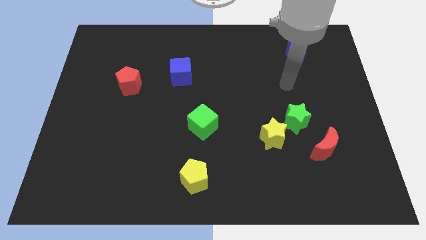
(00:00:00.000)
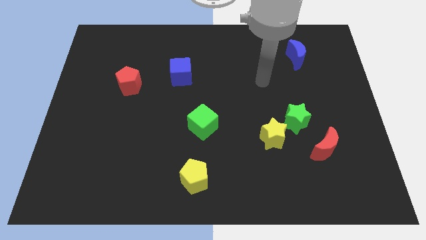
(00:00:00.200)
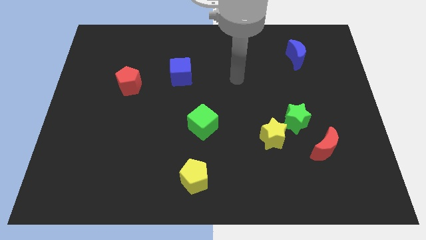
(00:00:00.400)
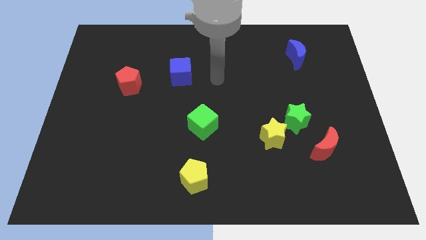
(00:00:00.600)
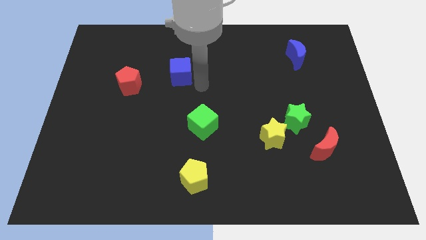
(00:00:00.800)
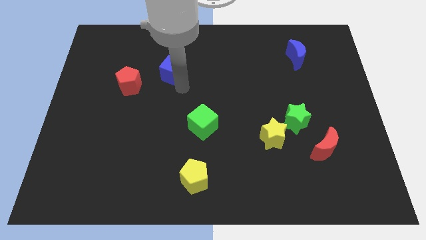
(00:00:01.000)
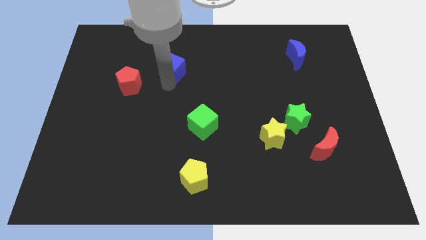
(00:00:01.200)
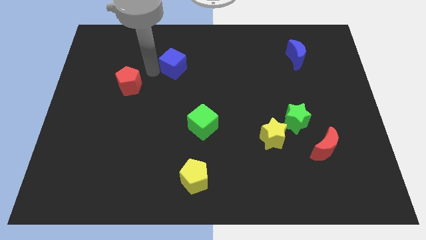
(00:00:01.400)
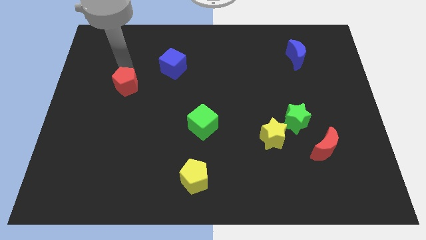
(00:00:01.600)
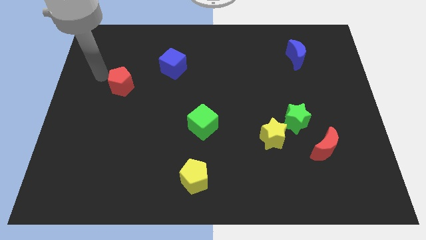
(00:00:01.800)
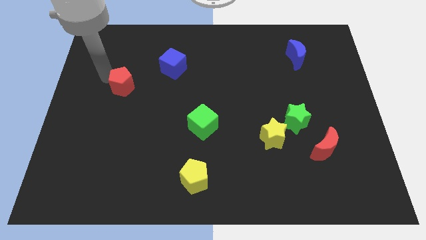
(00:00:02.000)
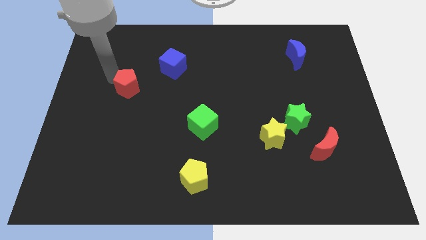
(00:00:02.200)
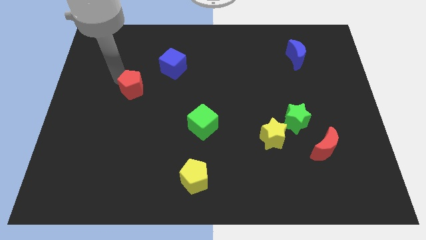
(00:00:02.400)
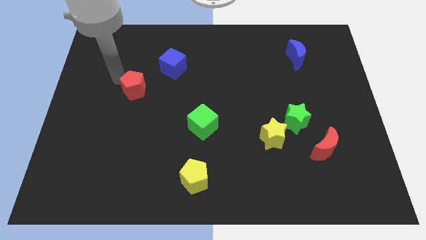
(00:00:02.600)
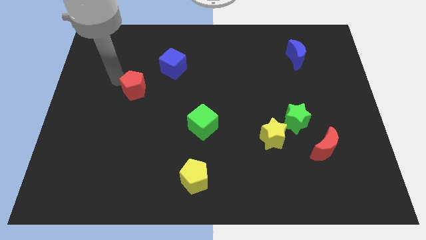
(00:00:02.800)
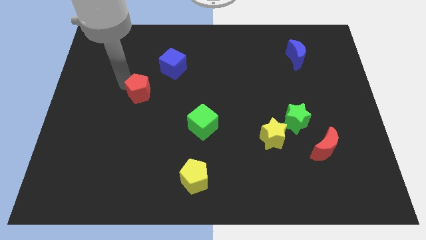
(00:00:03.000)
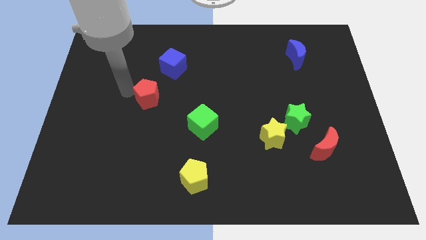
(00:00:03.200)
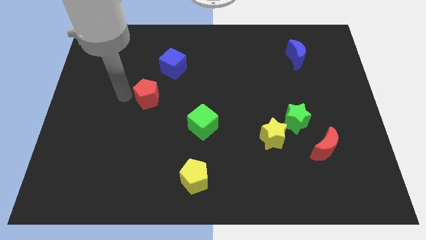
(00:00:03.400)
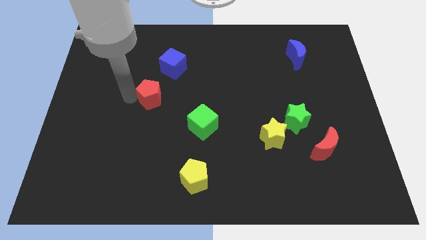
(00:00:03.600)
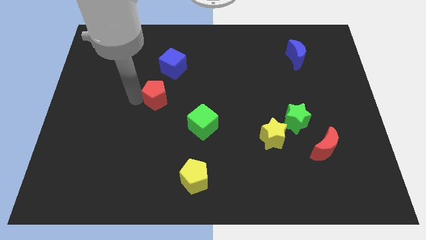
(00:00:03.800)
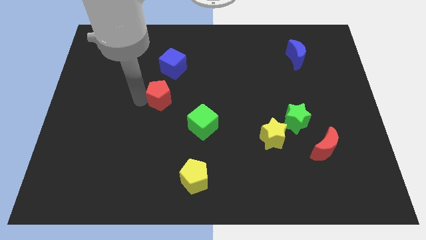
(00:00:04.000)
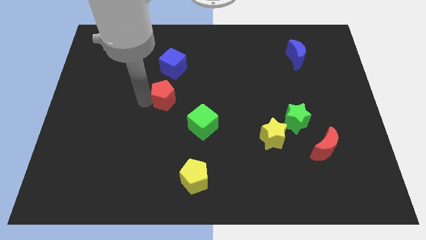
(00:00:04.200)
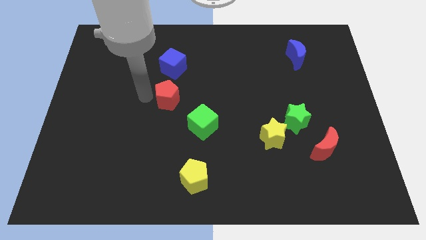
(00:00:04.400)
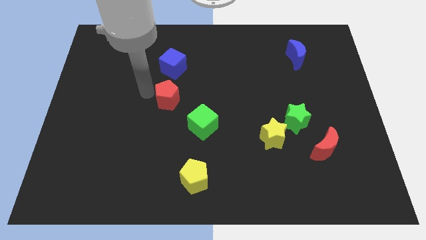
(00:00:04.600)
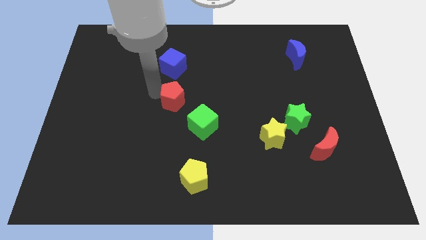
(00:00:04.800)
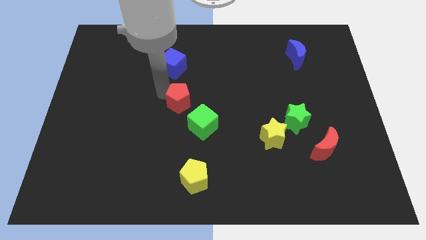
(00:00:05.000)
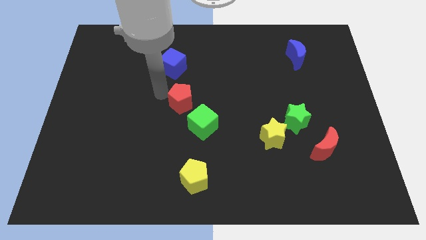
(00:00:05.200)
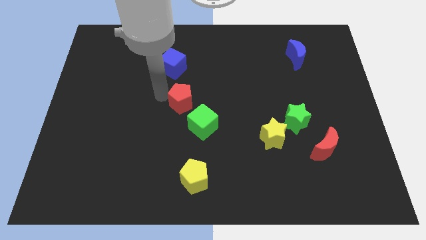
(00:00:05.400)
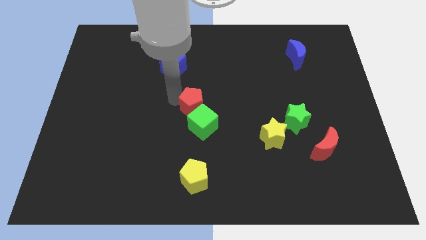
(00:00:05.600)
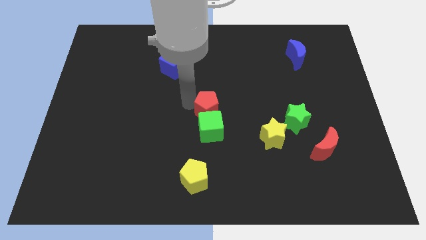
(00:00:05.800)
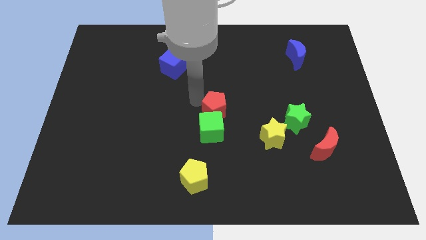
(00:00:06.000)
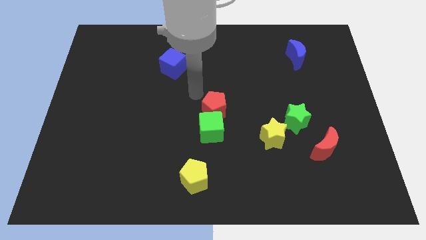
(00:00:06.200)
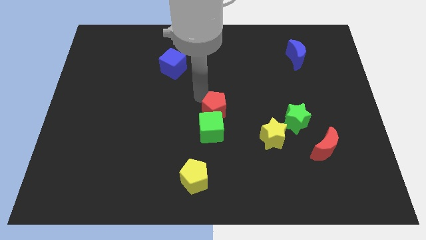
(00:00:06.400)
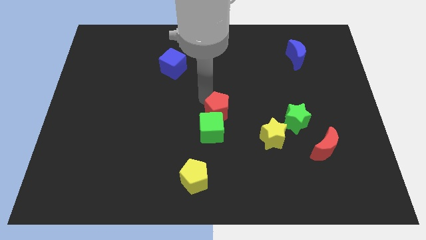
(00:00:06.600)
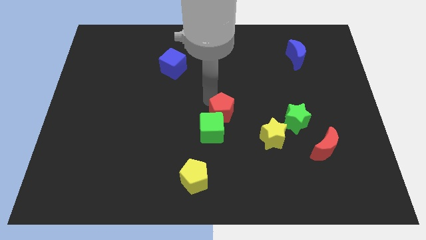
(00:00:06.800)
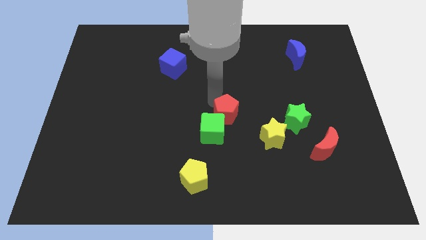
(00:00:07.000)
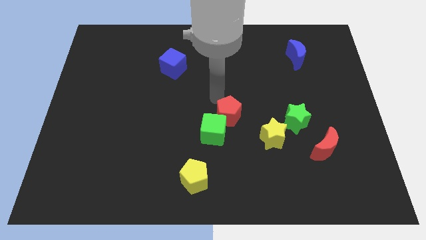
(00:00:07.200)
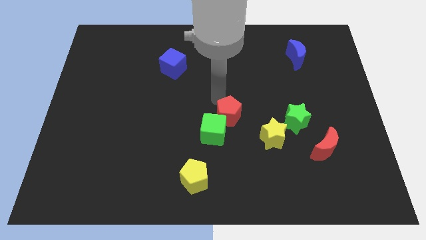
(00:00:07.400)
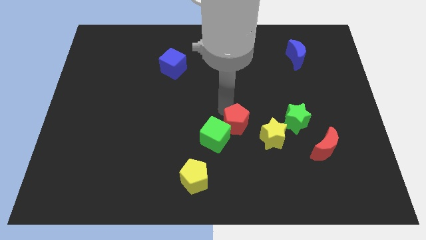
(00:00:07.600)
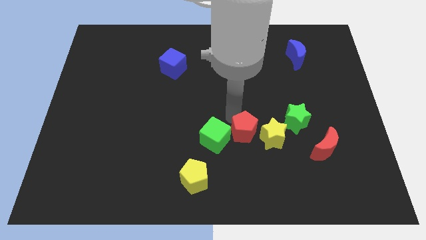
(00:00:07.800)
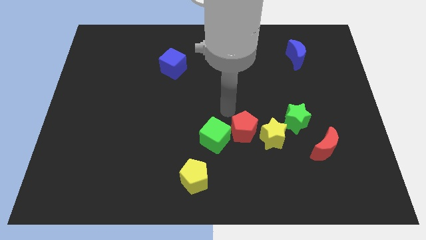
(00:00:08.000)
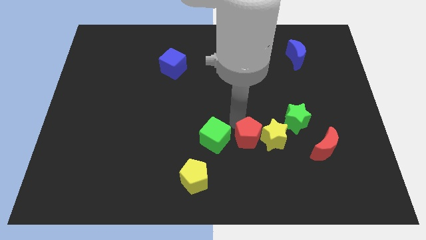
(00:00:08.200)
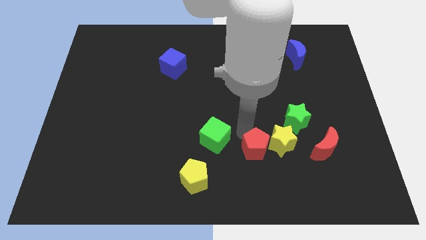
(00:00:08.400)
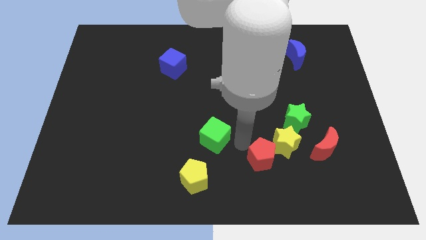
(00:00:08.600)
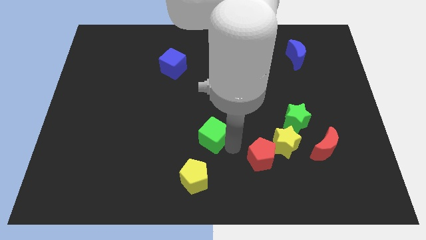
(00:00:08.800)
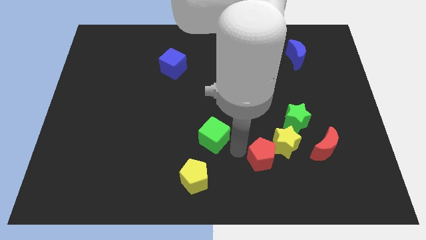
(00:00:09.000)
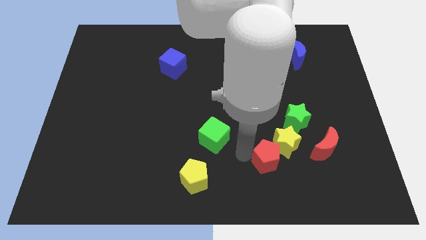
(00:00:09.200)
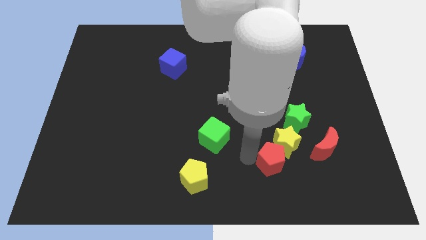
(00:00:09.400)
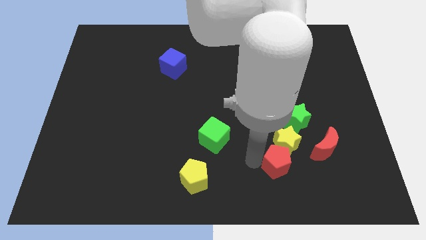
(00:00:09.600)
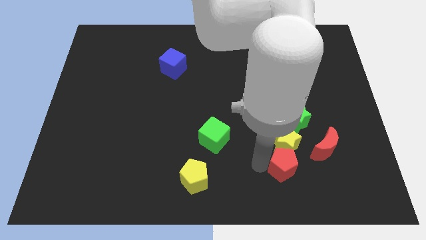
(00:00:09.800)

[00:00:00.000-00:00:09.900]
put the red pentagon to the bottom left of the red moon

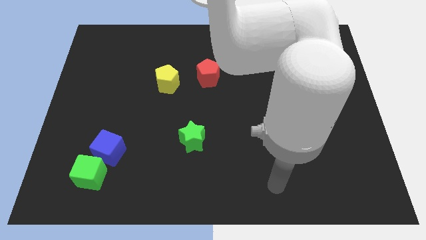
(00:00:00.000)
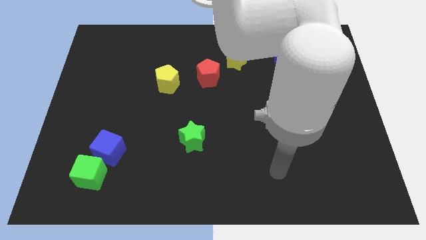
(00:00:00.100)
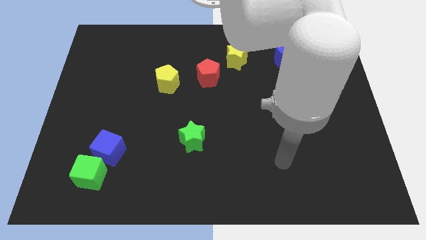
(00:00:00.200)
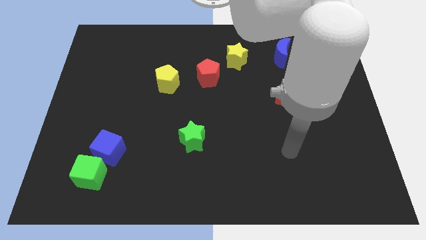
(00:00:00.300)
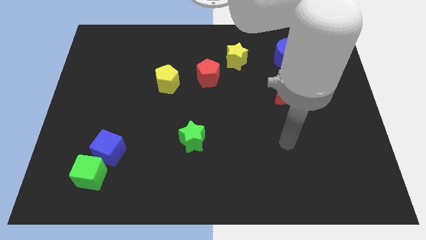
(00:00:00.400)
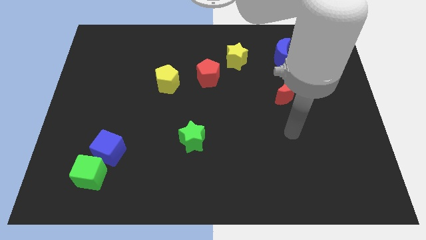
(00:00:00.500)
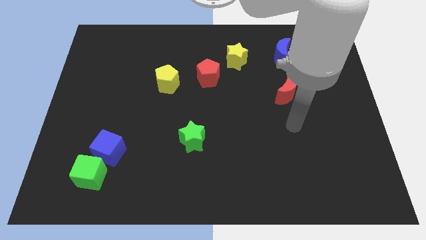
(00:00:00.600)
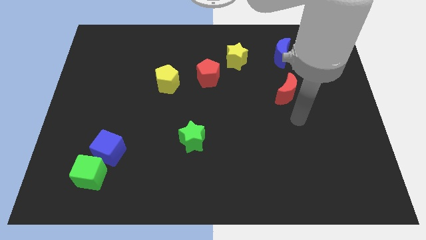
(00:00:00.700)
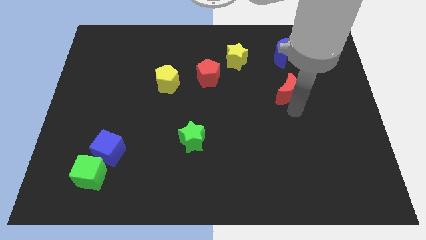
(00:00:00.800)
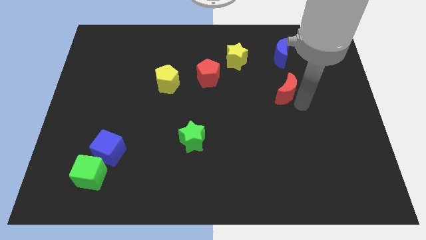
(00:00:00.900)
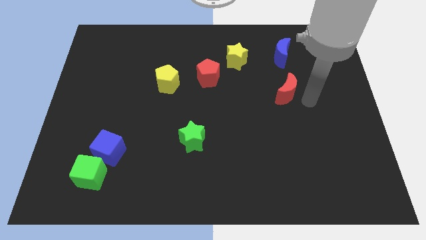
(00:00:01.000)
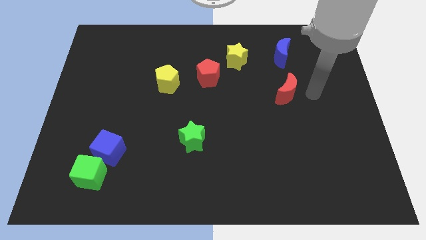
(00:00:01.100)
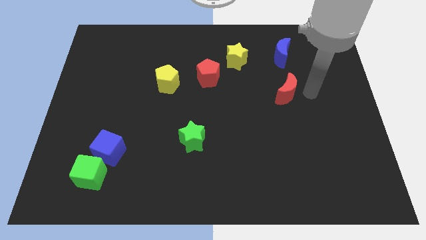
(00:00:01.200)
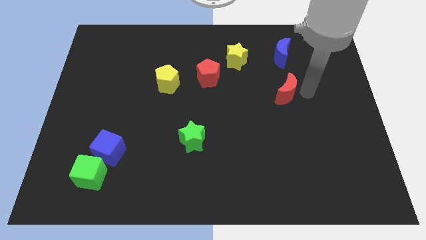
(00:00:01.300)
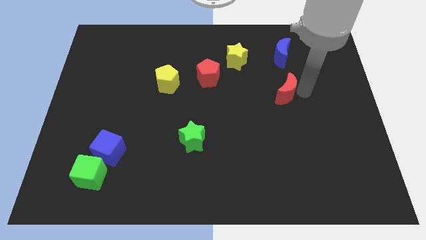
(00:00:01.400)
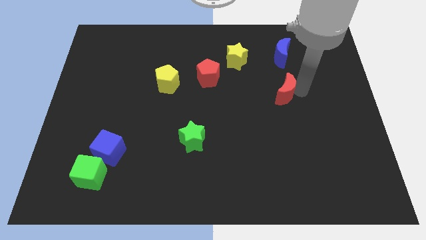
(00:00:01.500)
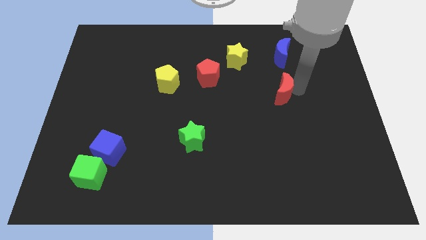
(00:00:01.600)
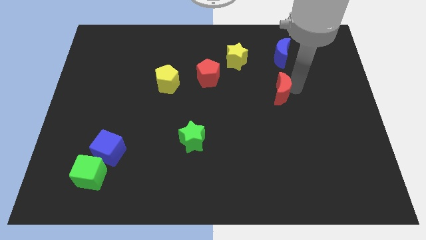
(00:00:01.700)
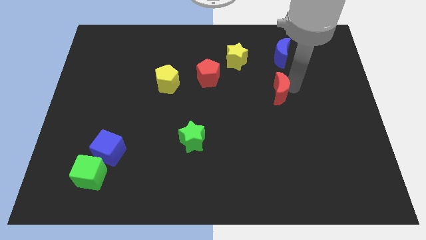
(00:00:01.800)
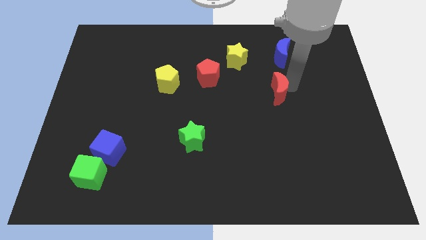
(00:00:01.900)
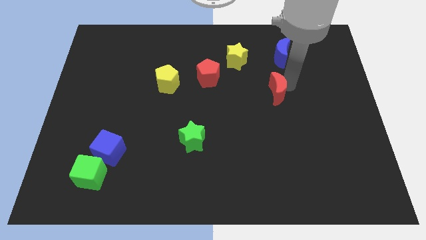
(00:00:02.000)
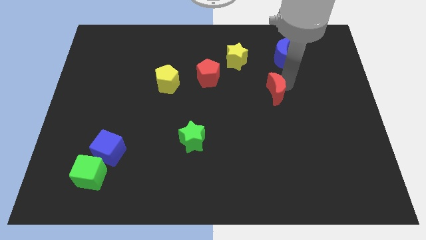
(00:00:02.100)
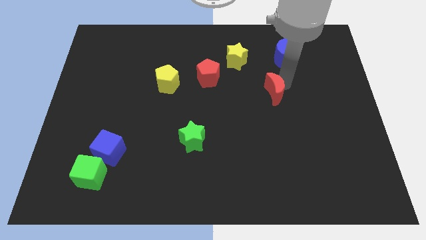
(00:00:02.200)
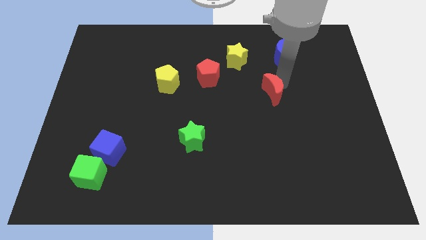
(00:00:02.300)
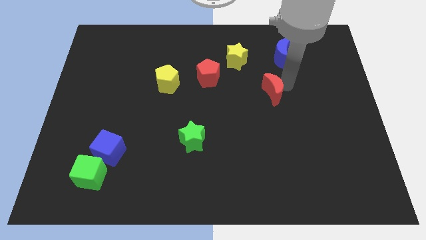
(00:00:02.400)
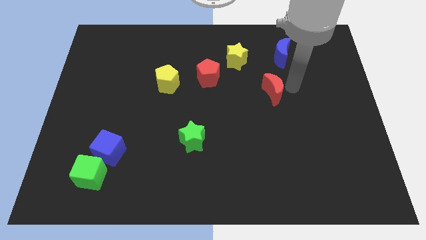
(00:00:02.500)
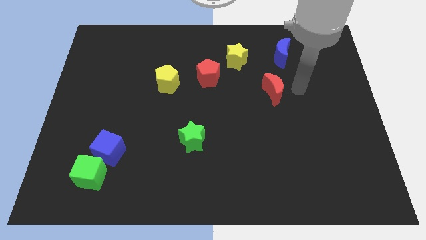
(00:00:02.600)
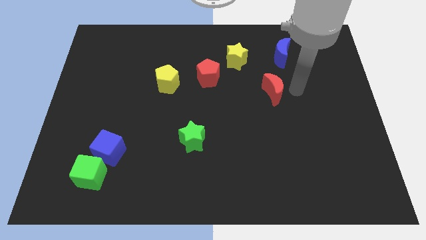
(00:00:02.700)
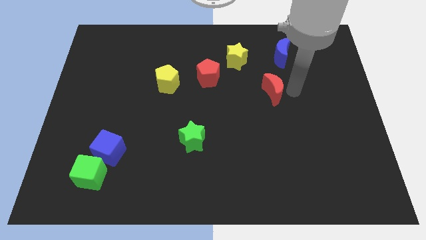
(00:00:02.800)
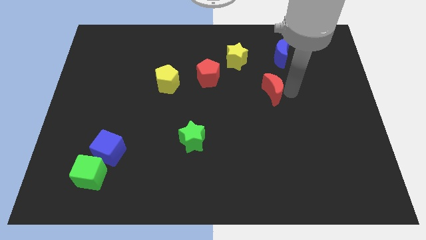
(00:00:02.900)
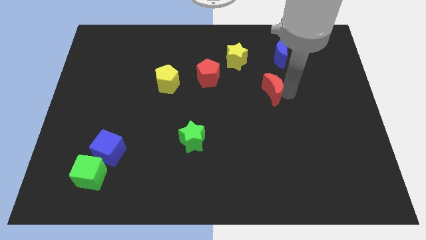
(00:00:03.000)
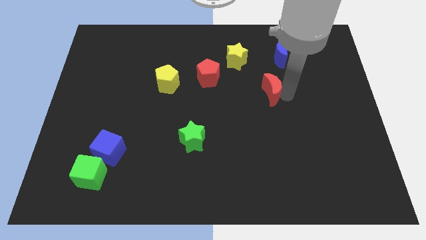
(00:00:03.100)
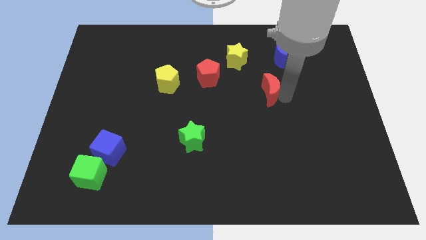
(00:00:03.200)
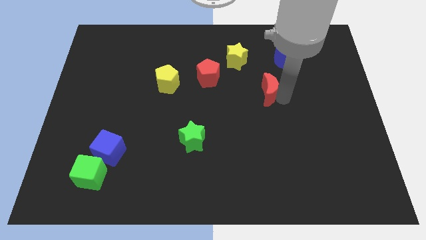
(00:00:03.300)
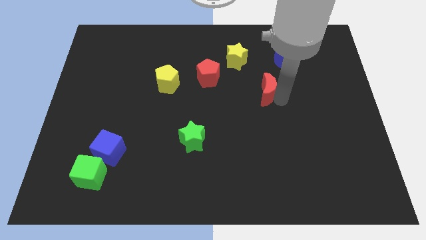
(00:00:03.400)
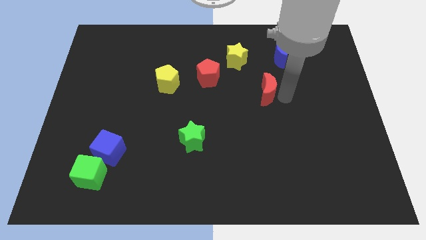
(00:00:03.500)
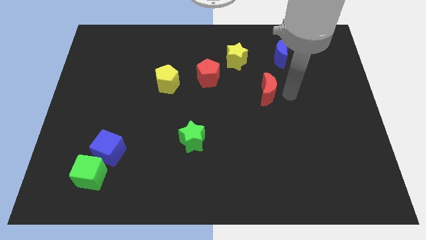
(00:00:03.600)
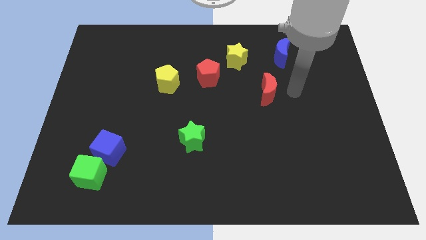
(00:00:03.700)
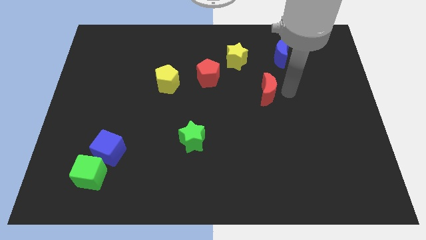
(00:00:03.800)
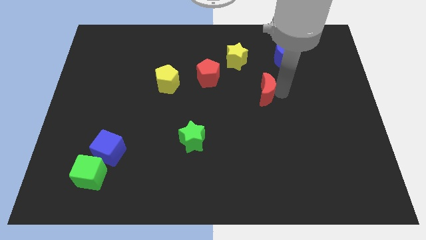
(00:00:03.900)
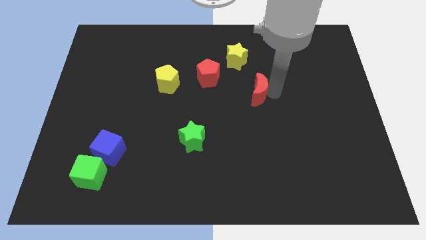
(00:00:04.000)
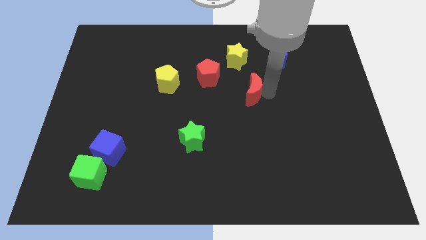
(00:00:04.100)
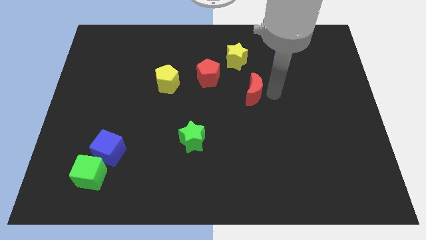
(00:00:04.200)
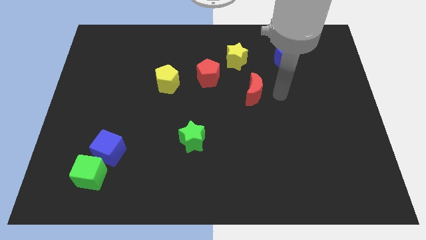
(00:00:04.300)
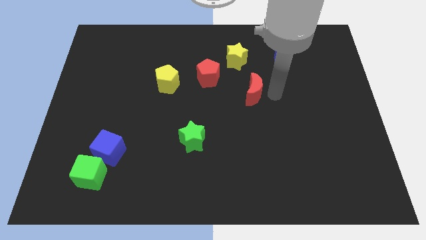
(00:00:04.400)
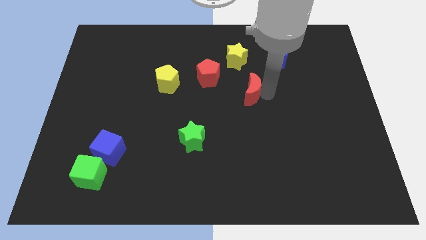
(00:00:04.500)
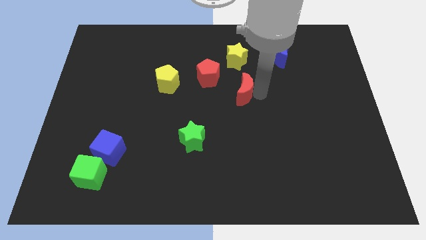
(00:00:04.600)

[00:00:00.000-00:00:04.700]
slide the red moon diagonally down and to the right of the red pentagon
